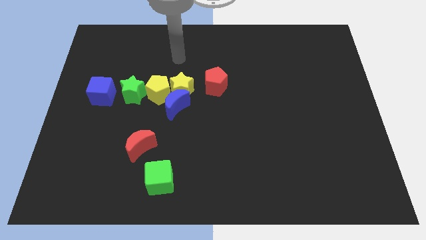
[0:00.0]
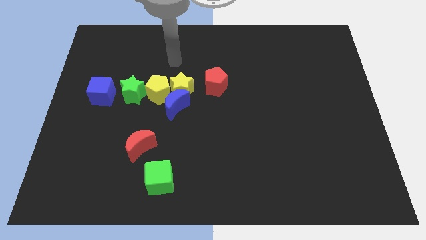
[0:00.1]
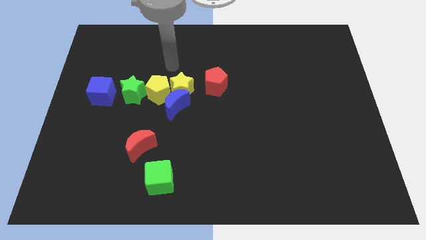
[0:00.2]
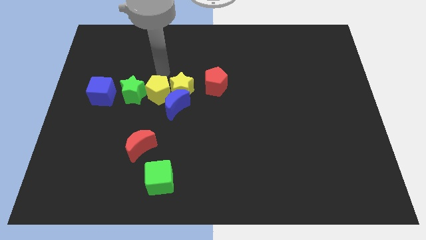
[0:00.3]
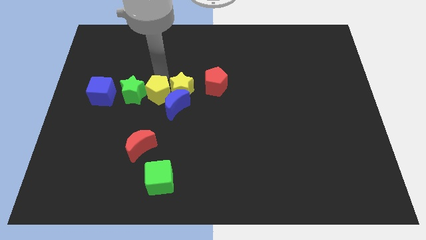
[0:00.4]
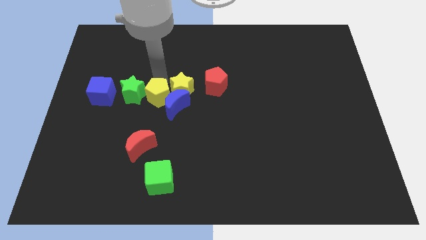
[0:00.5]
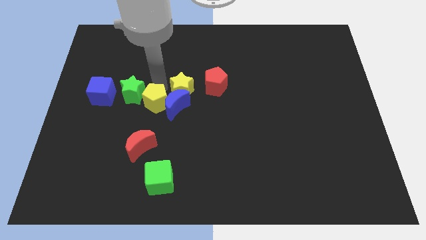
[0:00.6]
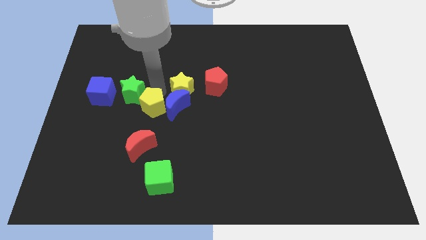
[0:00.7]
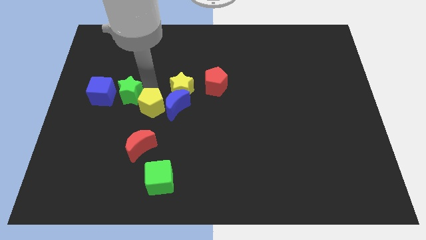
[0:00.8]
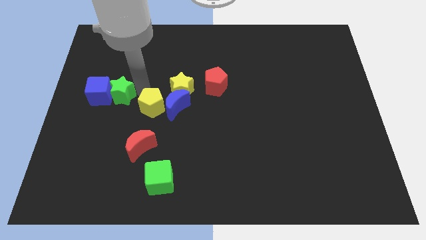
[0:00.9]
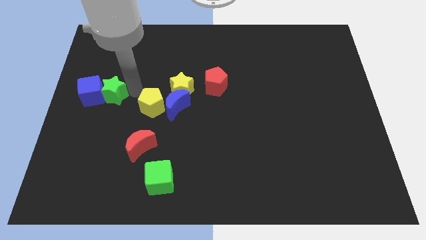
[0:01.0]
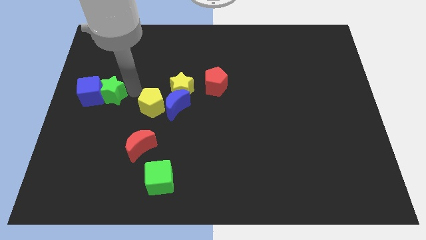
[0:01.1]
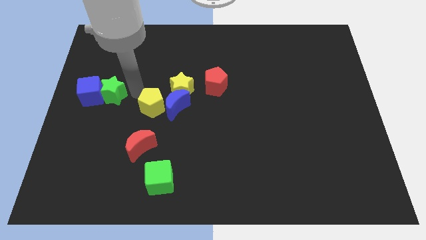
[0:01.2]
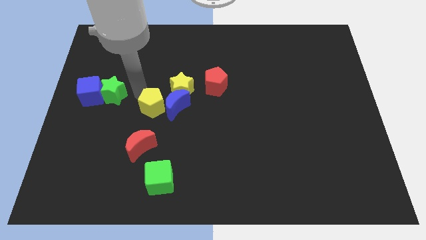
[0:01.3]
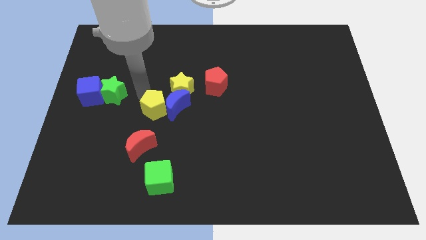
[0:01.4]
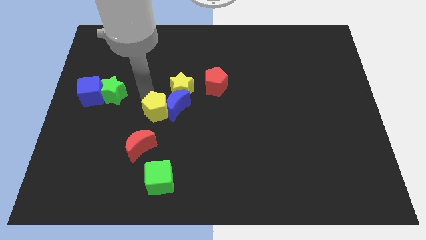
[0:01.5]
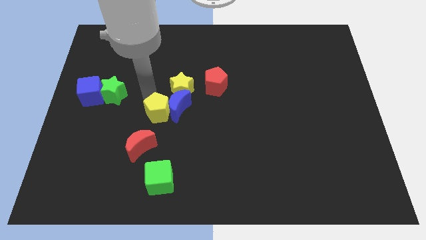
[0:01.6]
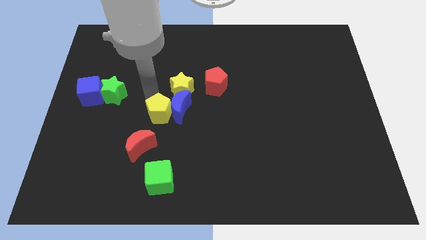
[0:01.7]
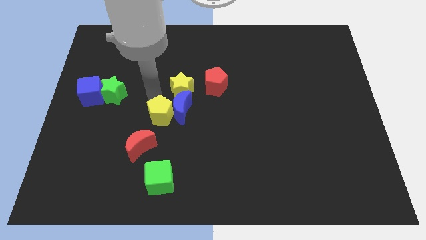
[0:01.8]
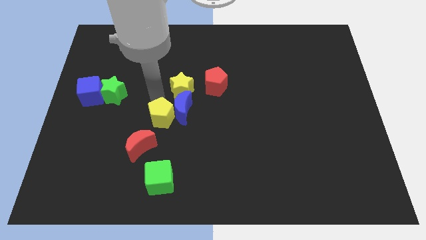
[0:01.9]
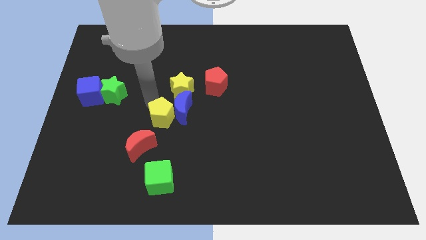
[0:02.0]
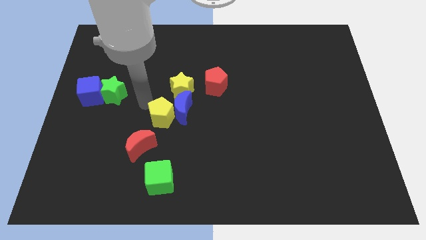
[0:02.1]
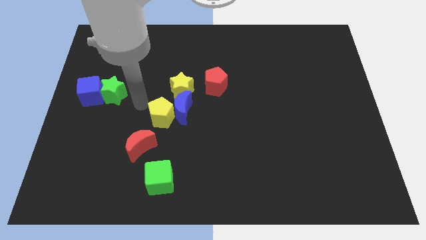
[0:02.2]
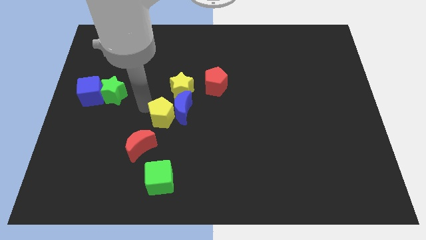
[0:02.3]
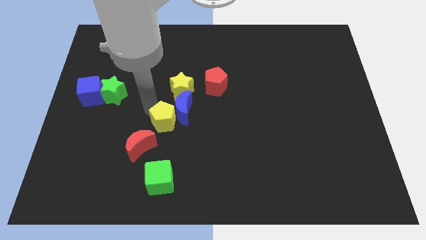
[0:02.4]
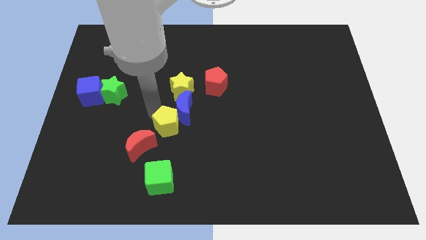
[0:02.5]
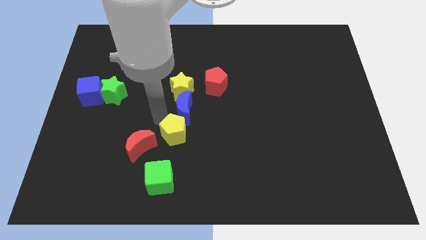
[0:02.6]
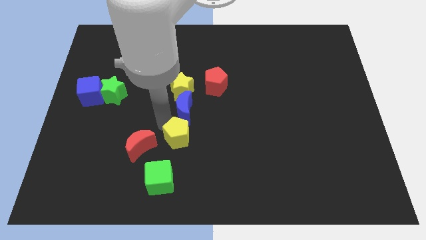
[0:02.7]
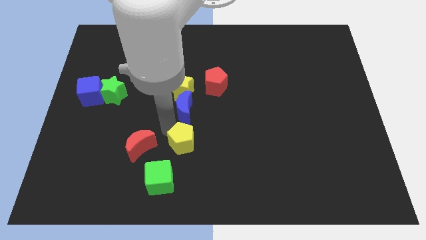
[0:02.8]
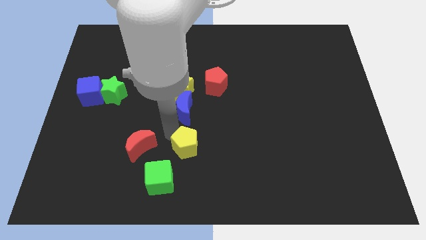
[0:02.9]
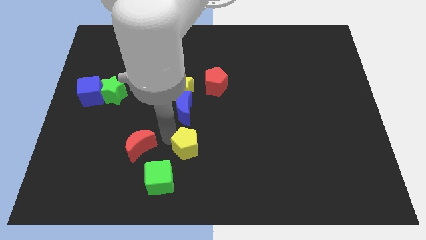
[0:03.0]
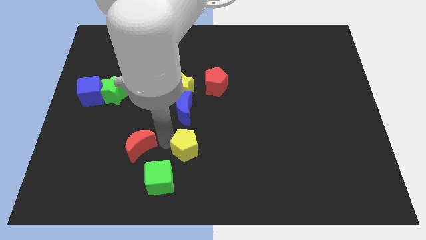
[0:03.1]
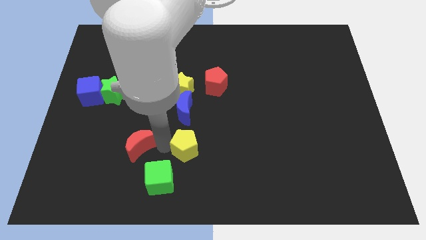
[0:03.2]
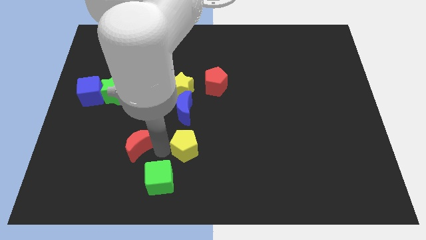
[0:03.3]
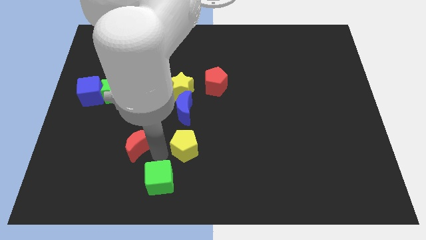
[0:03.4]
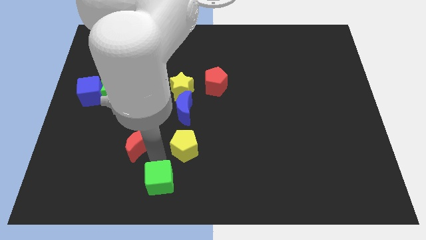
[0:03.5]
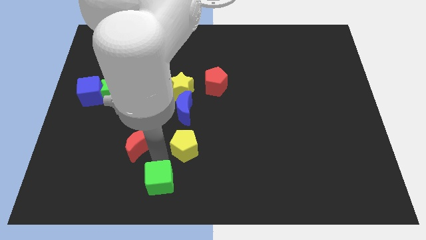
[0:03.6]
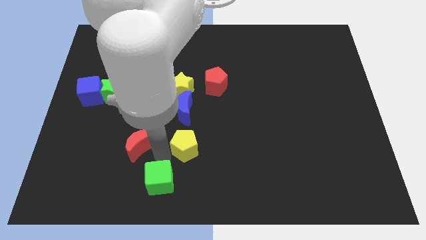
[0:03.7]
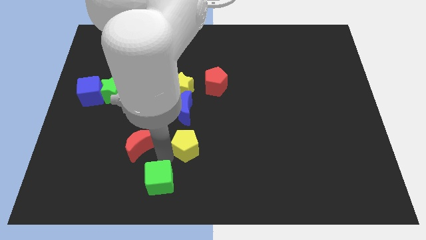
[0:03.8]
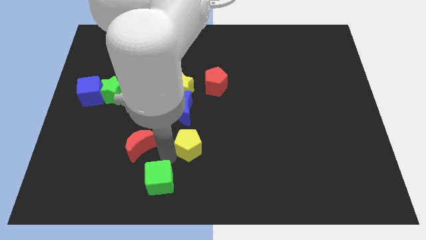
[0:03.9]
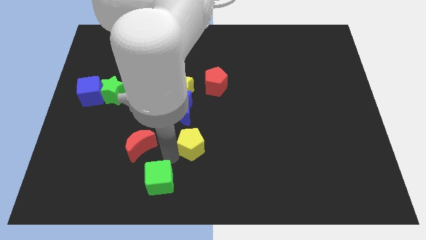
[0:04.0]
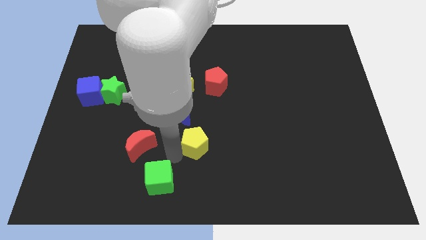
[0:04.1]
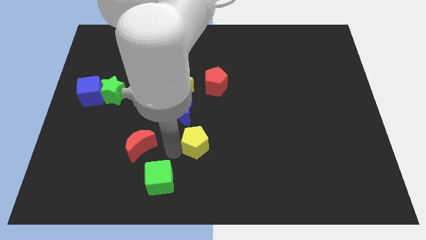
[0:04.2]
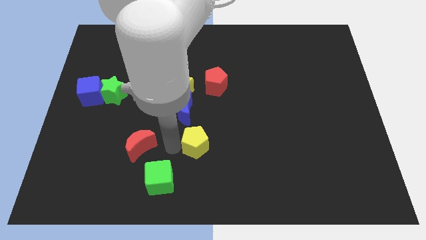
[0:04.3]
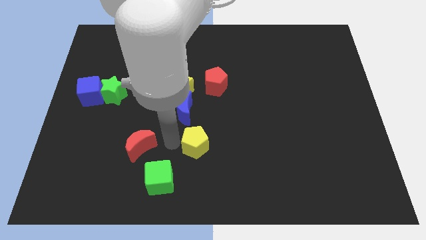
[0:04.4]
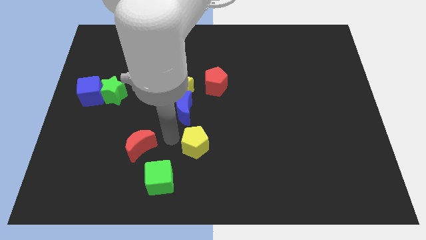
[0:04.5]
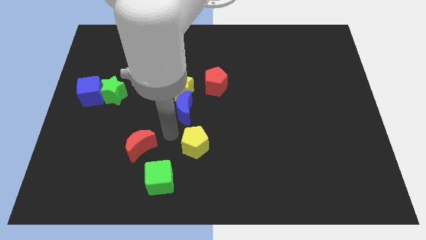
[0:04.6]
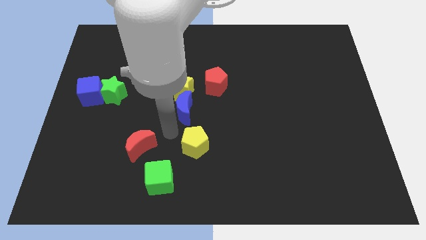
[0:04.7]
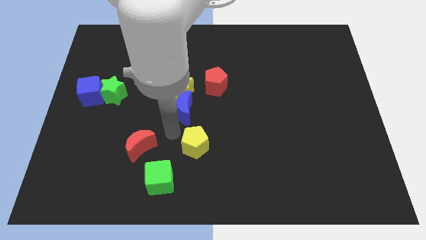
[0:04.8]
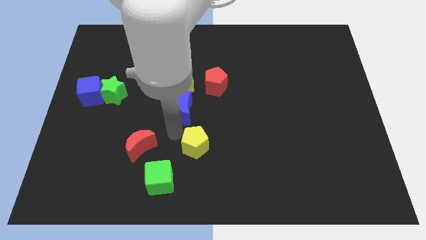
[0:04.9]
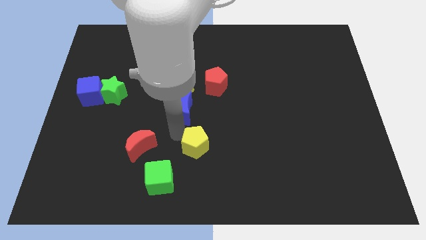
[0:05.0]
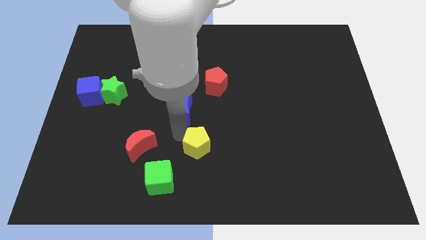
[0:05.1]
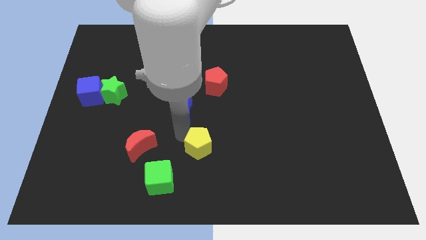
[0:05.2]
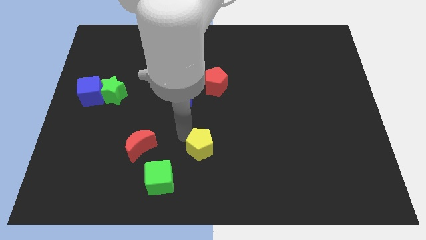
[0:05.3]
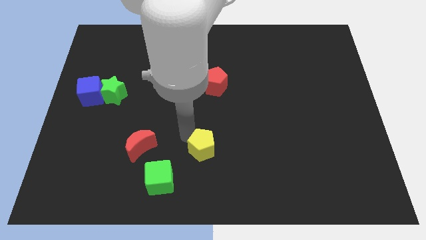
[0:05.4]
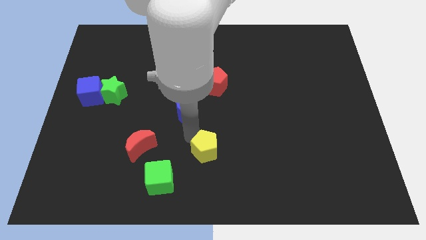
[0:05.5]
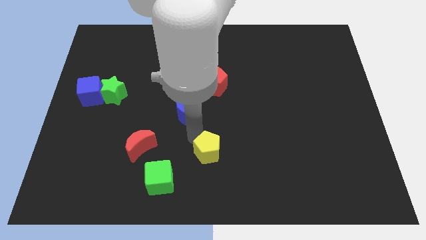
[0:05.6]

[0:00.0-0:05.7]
push the yellow pentagon diagonally downwards and to the right

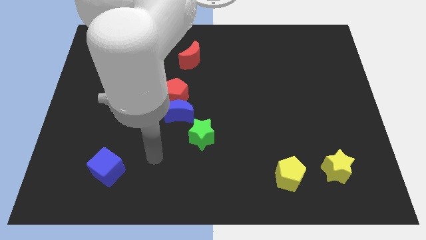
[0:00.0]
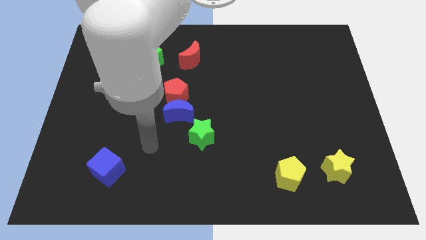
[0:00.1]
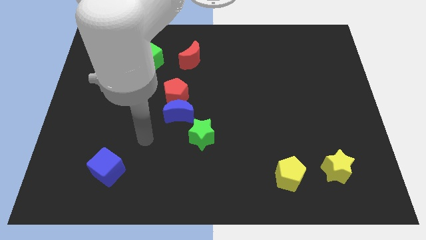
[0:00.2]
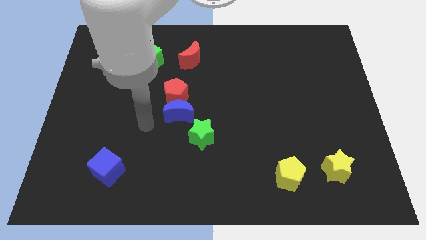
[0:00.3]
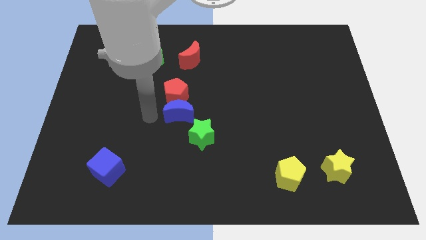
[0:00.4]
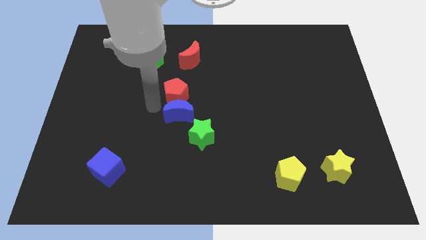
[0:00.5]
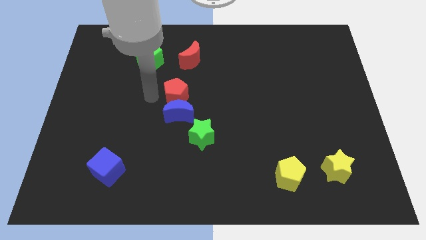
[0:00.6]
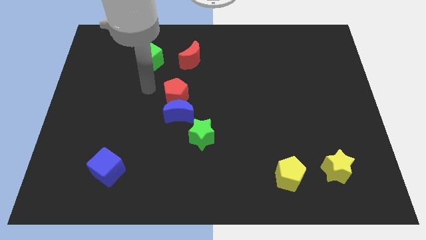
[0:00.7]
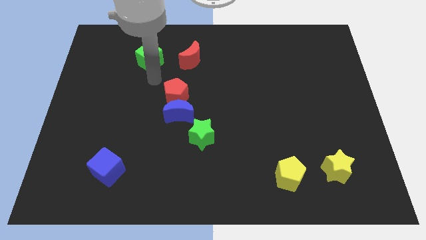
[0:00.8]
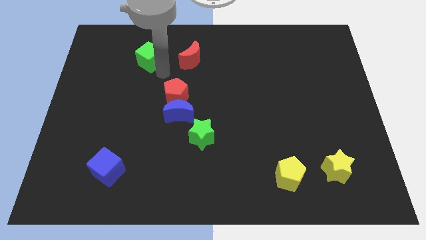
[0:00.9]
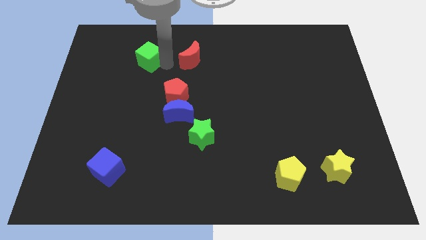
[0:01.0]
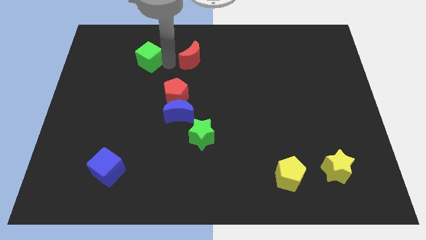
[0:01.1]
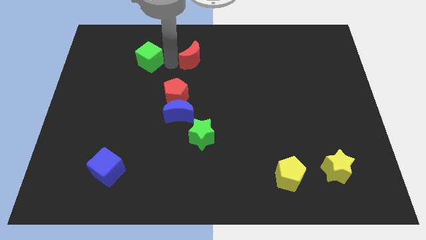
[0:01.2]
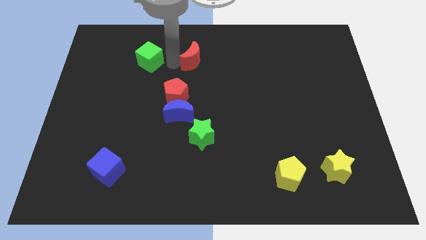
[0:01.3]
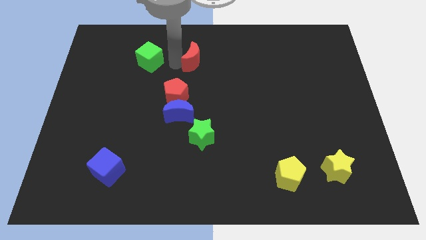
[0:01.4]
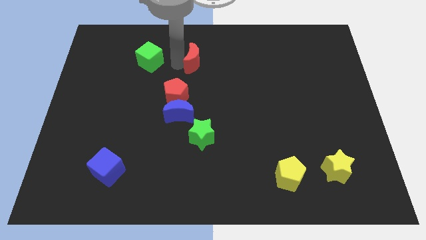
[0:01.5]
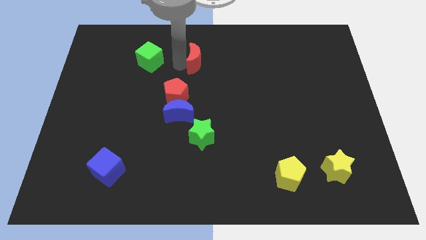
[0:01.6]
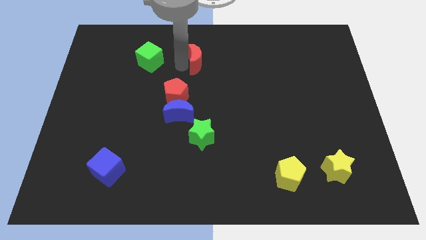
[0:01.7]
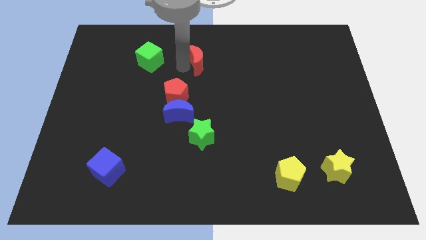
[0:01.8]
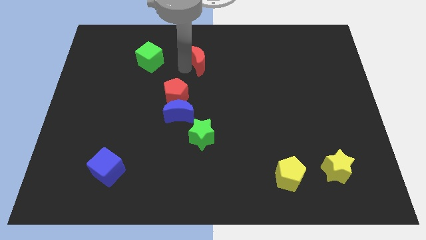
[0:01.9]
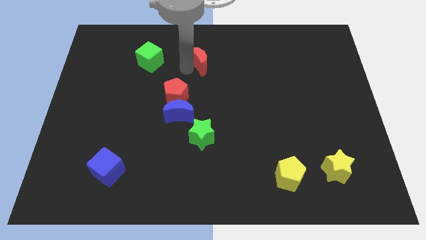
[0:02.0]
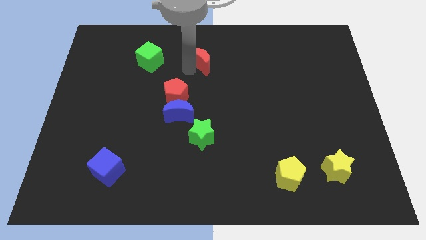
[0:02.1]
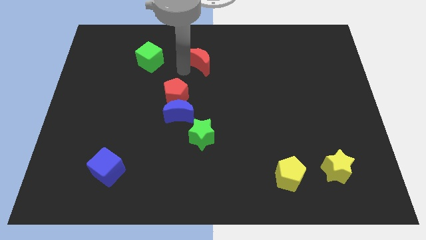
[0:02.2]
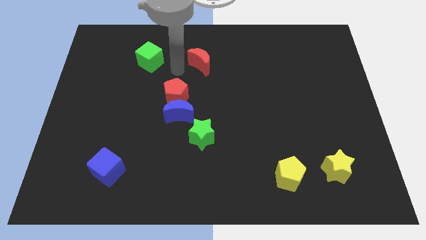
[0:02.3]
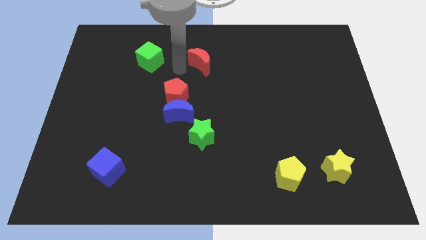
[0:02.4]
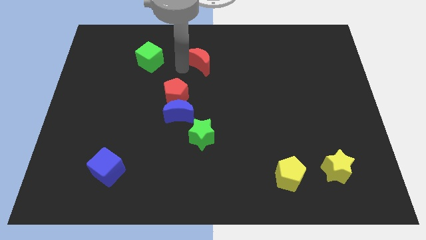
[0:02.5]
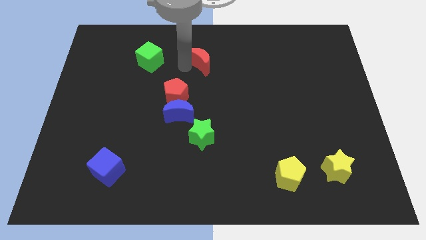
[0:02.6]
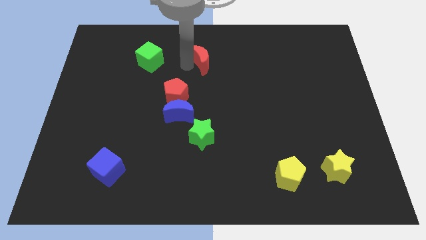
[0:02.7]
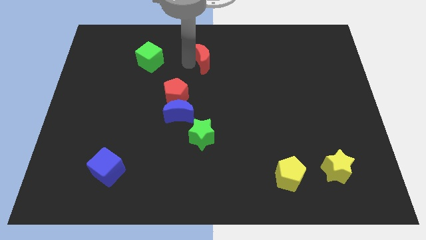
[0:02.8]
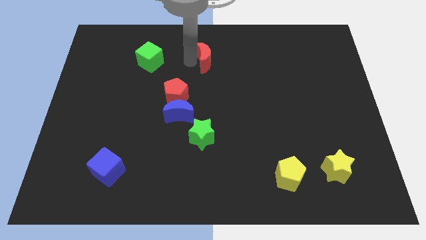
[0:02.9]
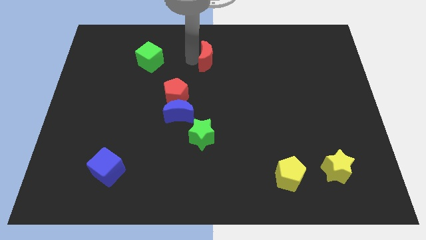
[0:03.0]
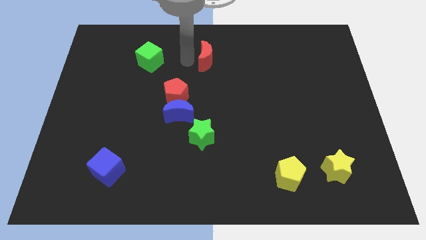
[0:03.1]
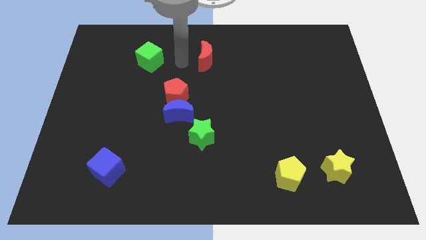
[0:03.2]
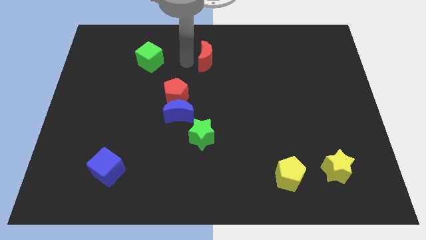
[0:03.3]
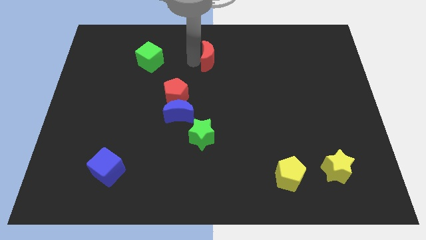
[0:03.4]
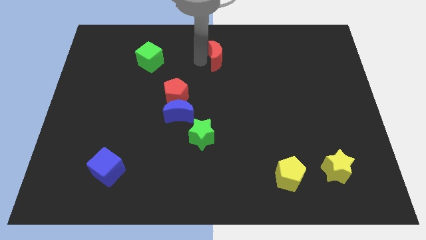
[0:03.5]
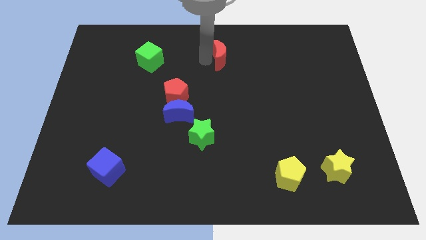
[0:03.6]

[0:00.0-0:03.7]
slightly move the red moon to the right
